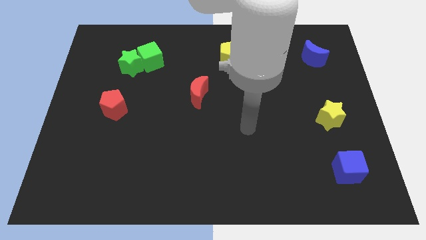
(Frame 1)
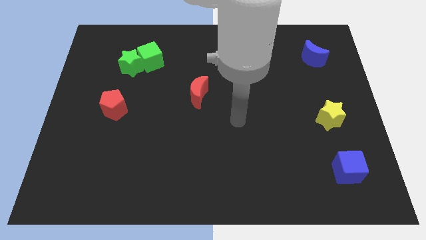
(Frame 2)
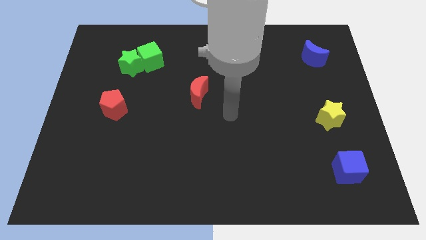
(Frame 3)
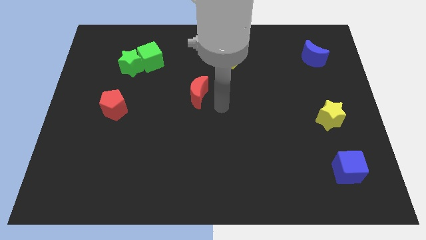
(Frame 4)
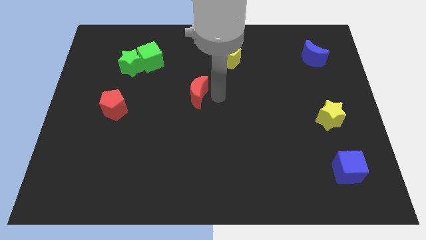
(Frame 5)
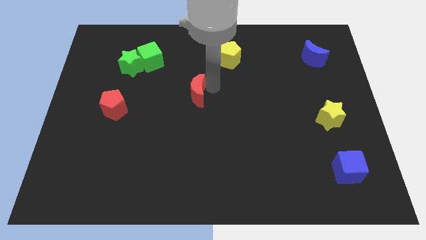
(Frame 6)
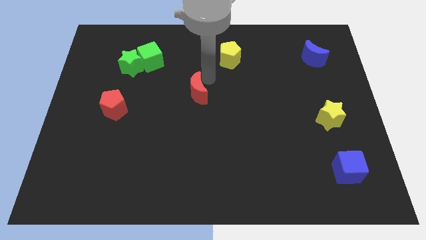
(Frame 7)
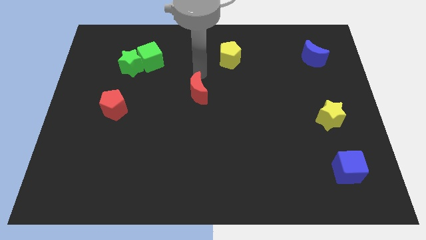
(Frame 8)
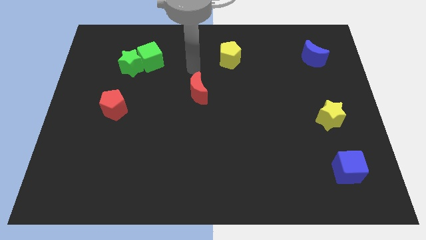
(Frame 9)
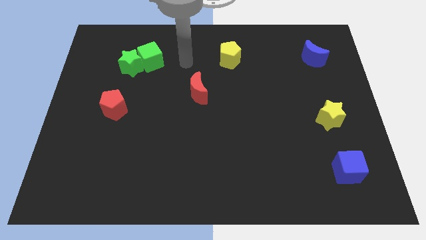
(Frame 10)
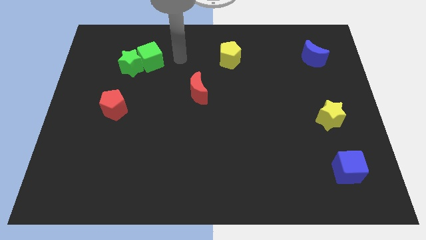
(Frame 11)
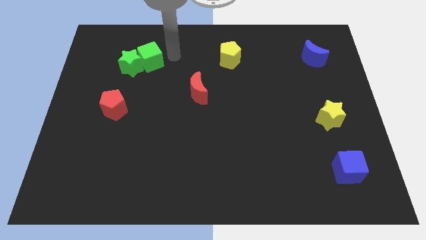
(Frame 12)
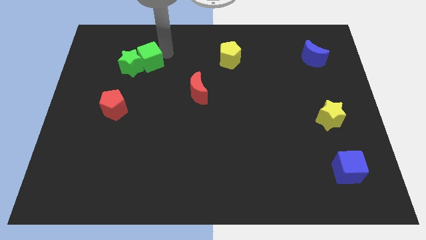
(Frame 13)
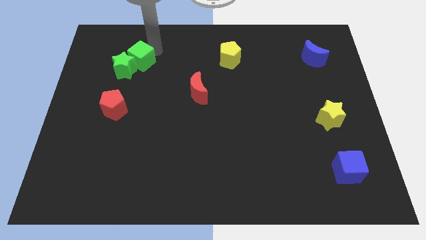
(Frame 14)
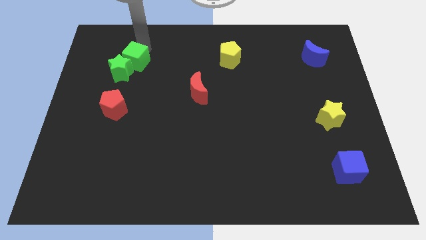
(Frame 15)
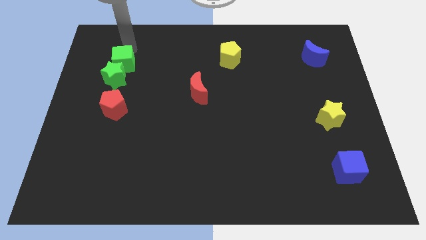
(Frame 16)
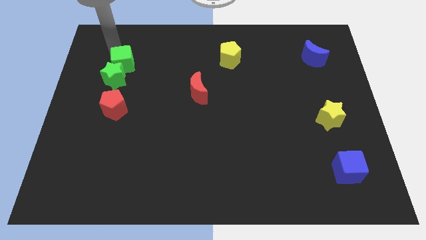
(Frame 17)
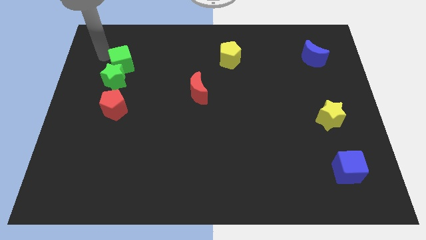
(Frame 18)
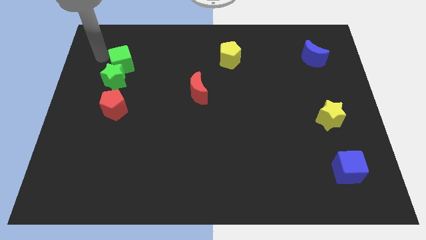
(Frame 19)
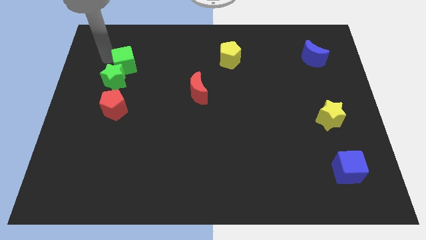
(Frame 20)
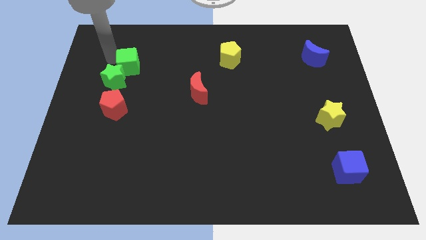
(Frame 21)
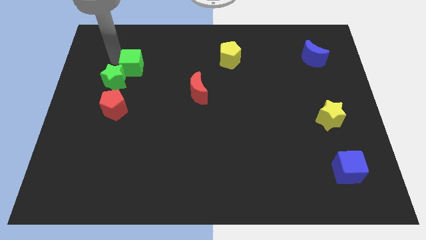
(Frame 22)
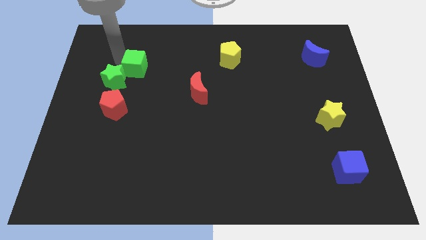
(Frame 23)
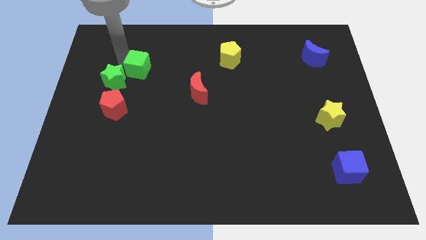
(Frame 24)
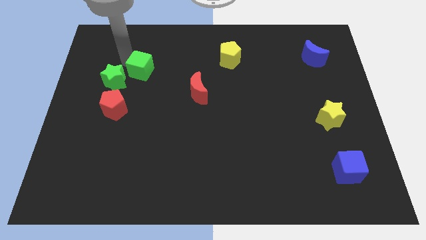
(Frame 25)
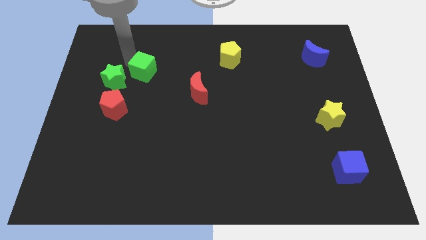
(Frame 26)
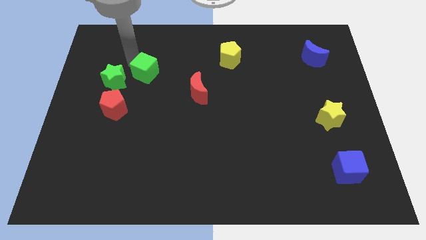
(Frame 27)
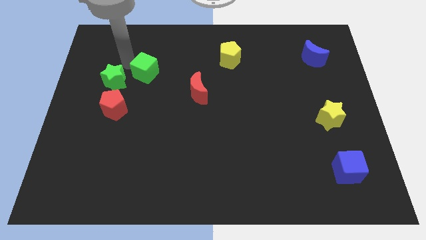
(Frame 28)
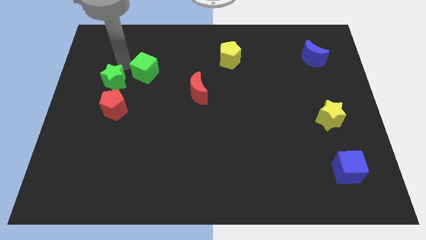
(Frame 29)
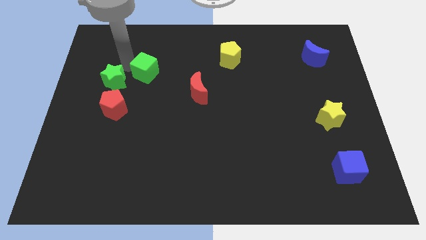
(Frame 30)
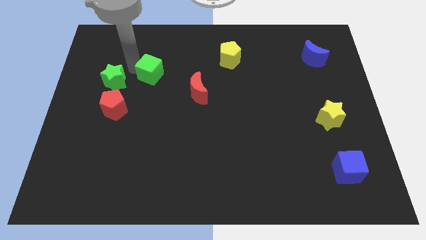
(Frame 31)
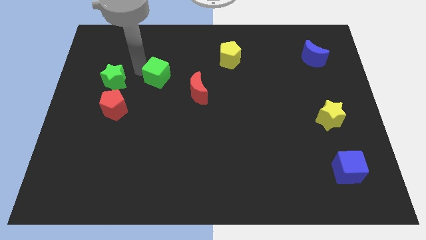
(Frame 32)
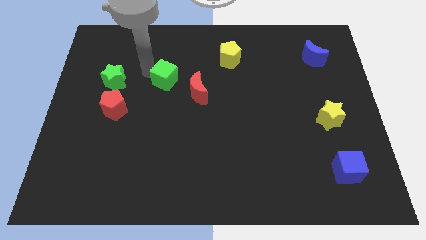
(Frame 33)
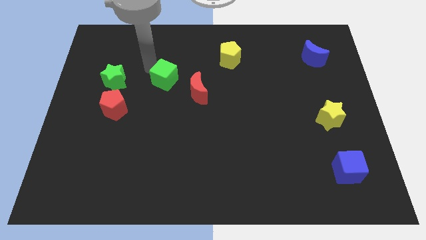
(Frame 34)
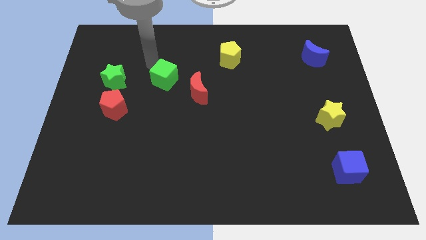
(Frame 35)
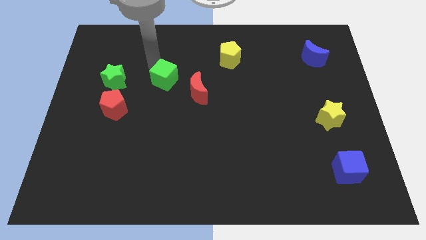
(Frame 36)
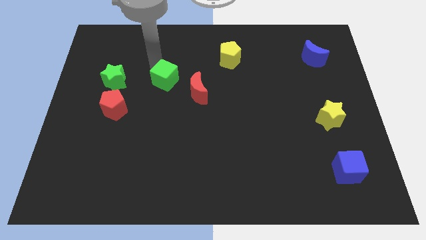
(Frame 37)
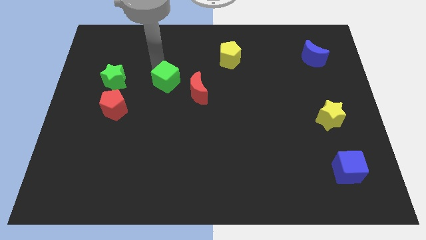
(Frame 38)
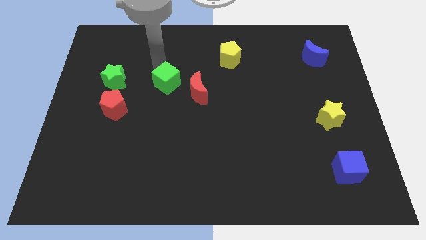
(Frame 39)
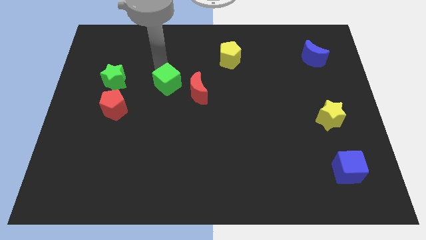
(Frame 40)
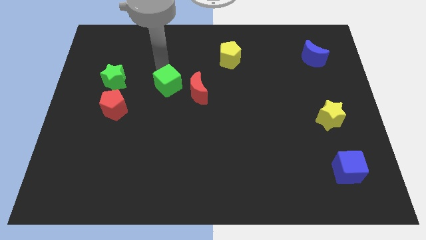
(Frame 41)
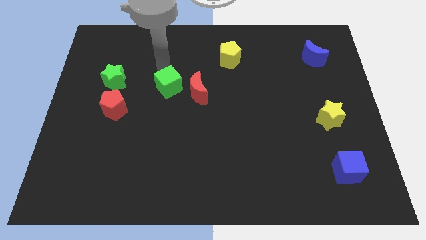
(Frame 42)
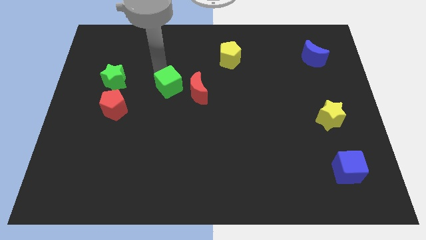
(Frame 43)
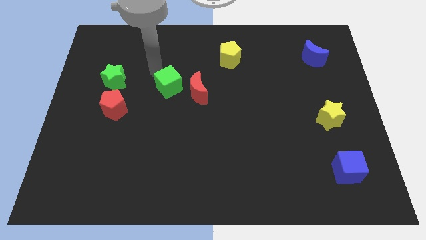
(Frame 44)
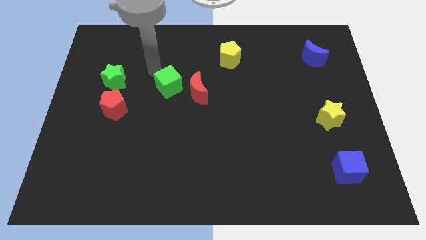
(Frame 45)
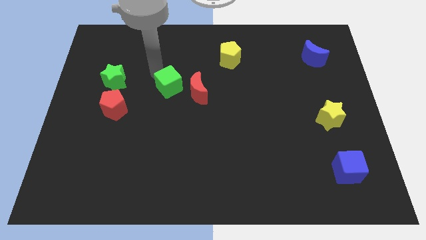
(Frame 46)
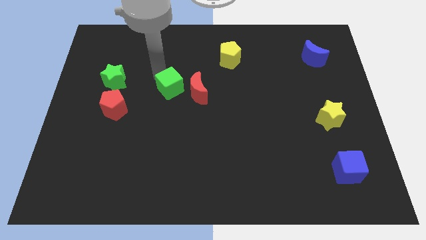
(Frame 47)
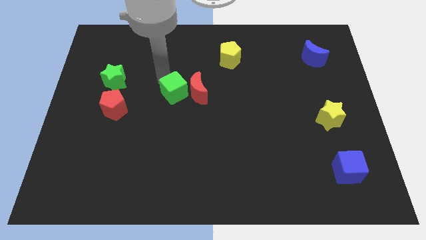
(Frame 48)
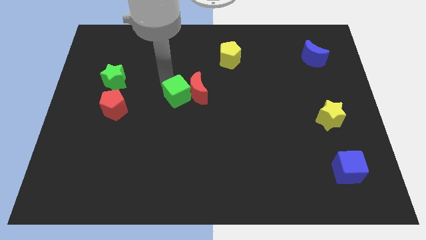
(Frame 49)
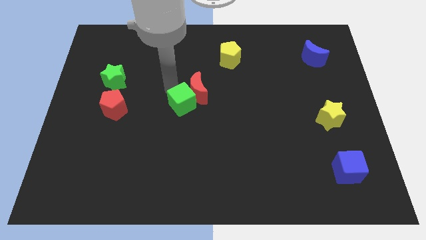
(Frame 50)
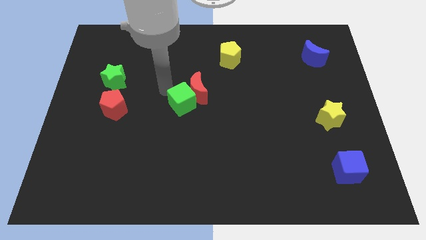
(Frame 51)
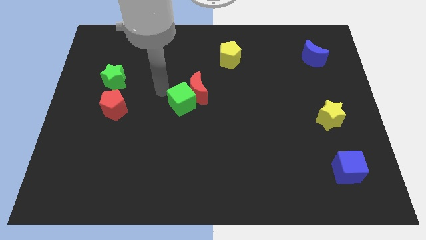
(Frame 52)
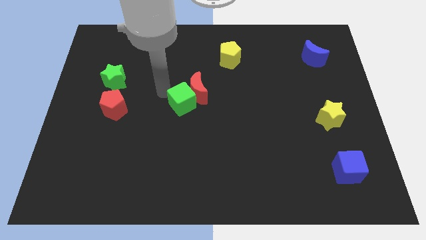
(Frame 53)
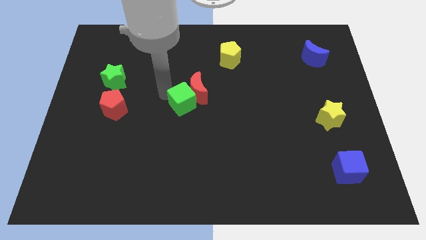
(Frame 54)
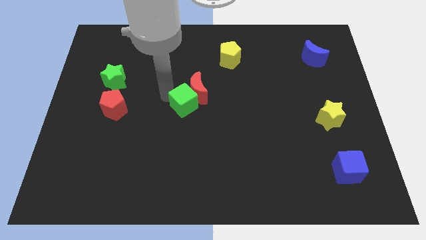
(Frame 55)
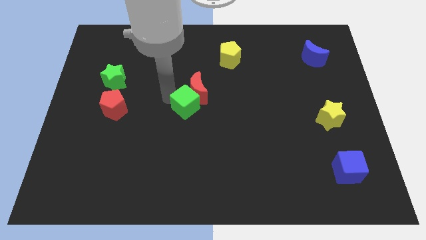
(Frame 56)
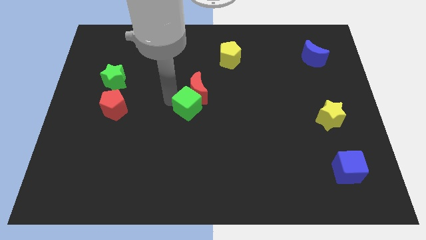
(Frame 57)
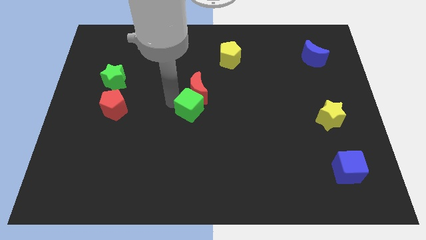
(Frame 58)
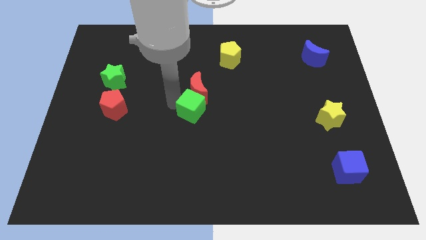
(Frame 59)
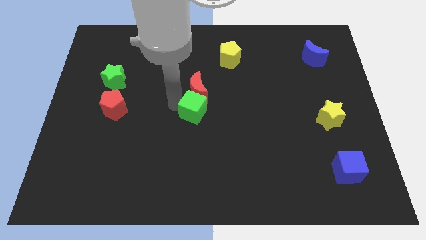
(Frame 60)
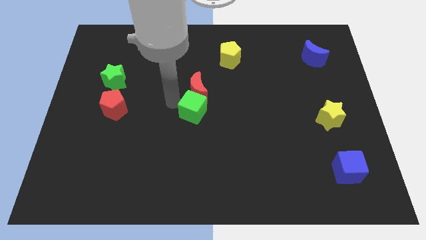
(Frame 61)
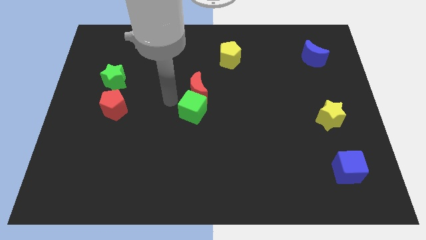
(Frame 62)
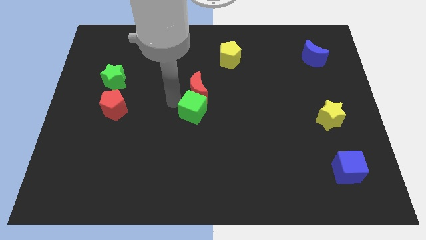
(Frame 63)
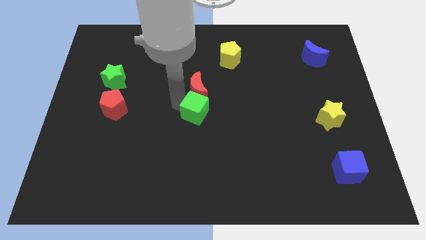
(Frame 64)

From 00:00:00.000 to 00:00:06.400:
move the green cube down and right

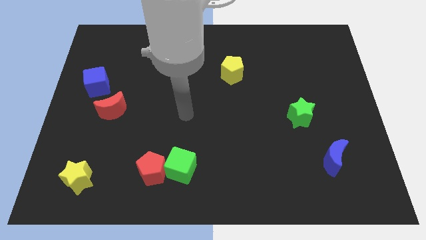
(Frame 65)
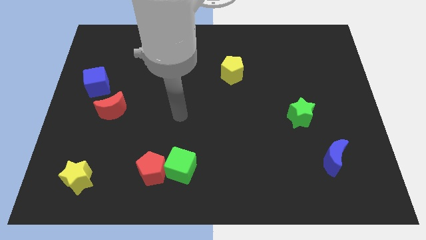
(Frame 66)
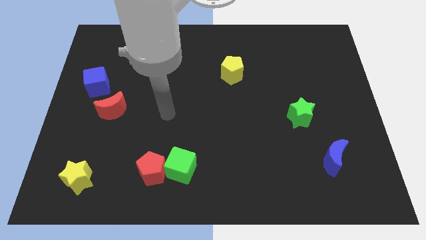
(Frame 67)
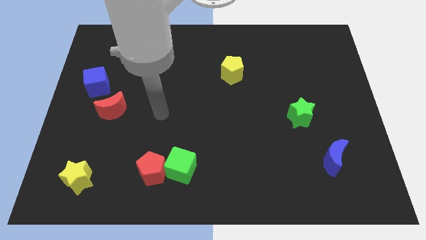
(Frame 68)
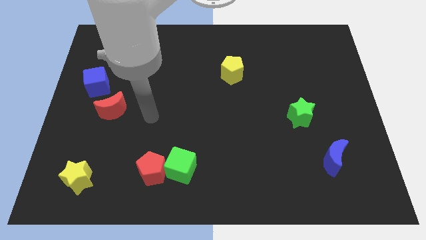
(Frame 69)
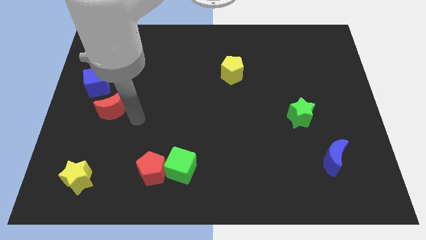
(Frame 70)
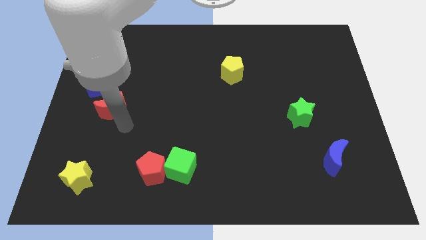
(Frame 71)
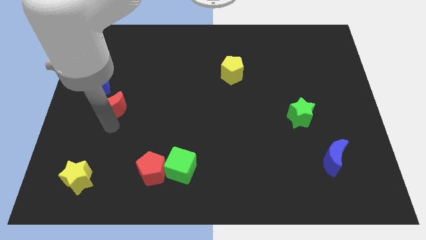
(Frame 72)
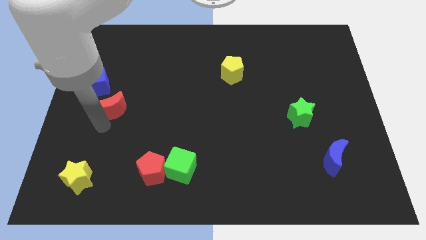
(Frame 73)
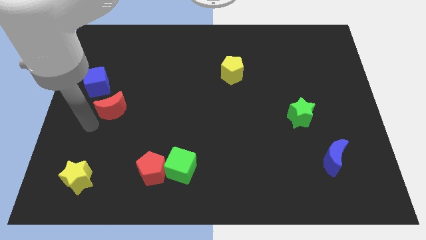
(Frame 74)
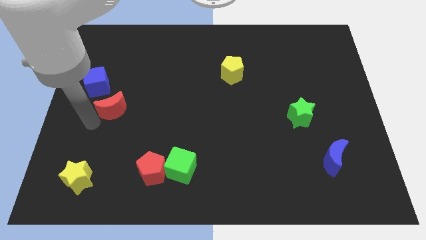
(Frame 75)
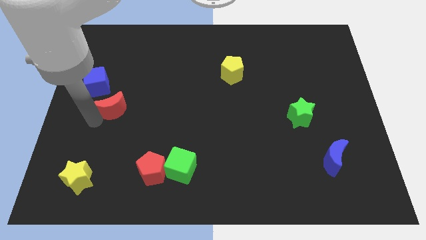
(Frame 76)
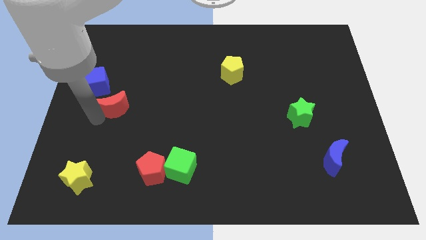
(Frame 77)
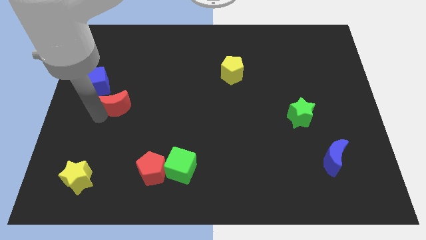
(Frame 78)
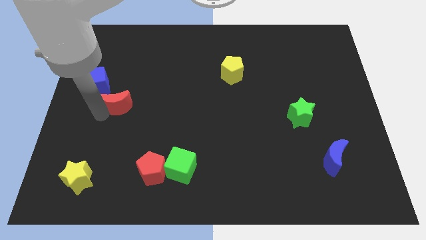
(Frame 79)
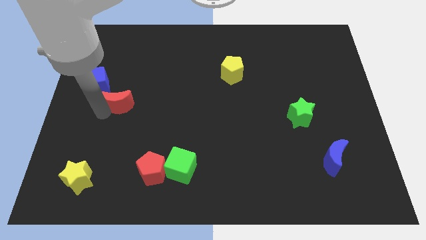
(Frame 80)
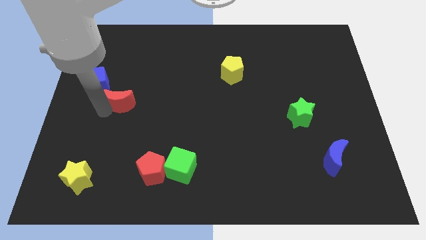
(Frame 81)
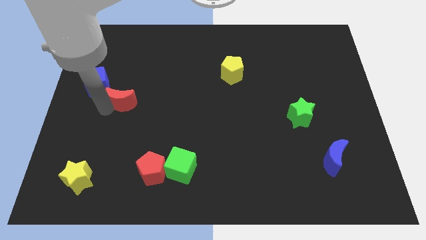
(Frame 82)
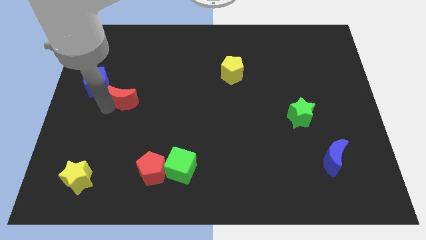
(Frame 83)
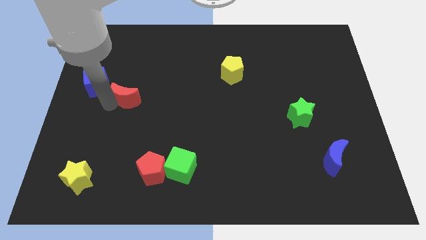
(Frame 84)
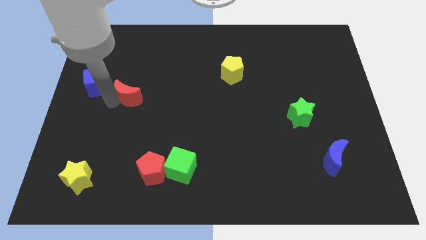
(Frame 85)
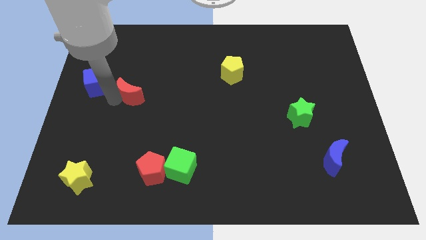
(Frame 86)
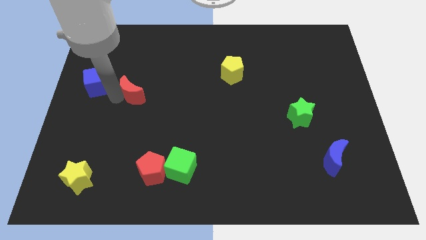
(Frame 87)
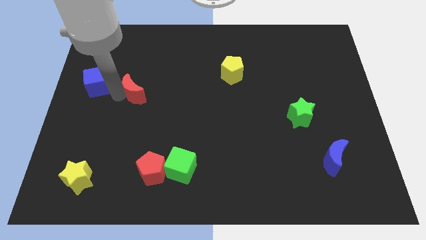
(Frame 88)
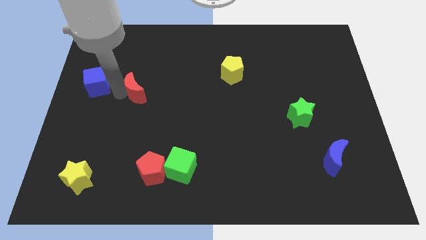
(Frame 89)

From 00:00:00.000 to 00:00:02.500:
push the red moon slightly up and to the right
